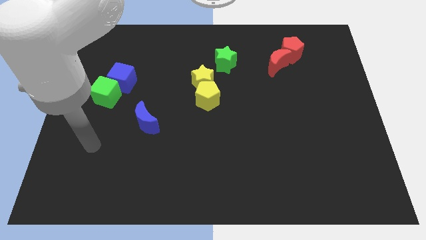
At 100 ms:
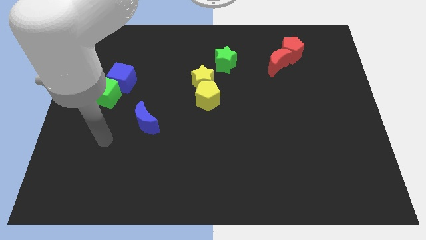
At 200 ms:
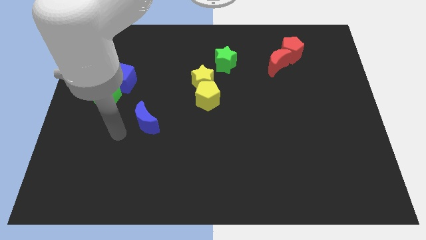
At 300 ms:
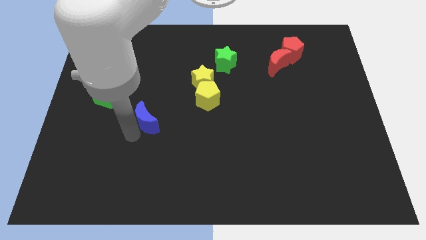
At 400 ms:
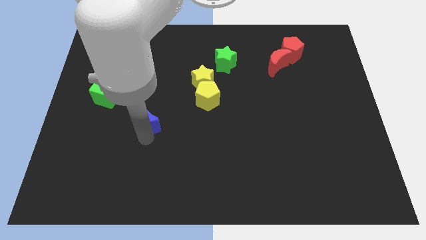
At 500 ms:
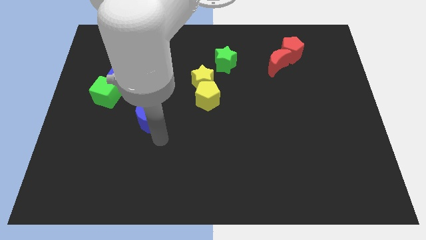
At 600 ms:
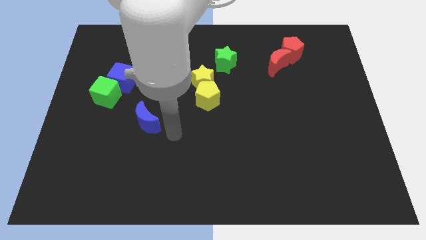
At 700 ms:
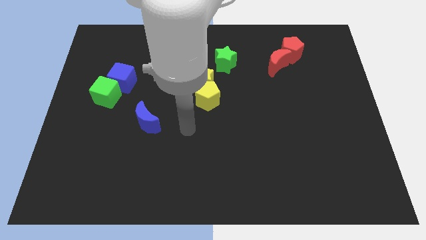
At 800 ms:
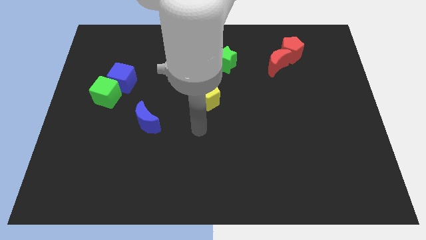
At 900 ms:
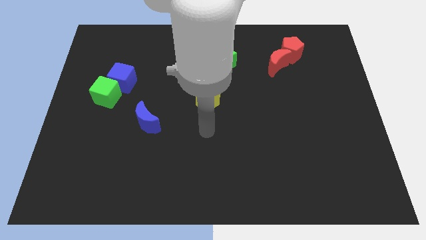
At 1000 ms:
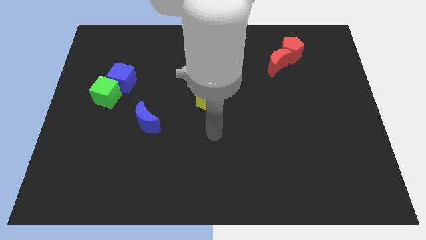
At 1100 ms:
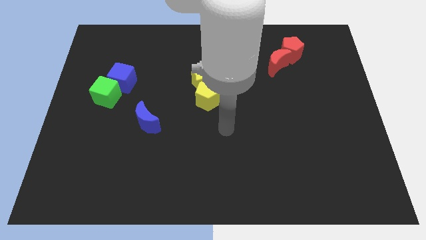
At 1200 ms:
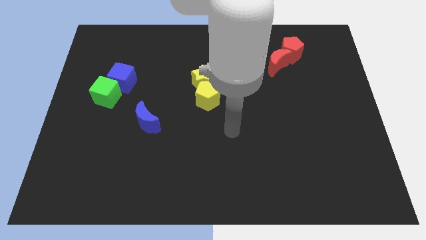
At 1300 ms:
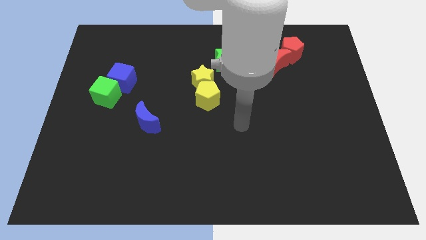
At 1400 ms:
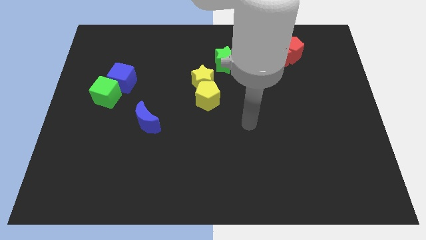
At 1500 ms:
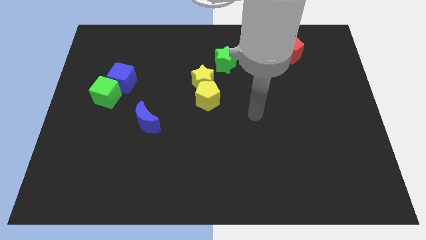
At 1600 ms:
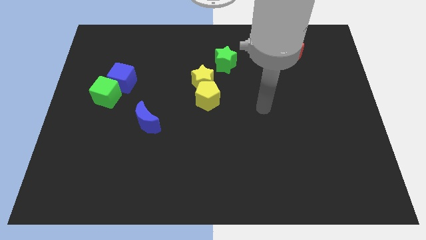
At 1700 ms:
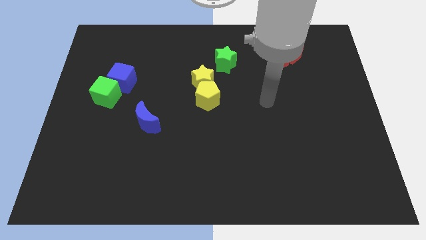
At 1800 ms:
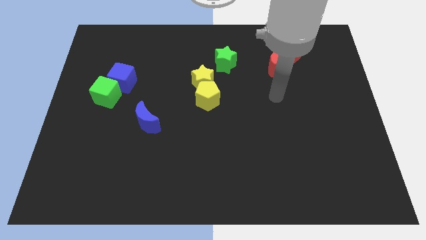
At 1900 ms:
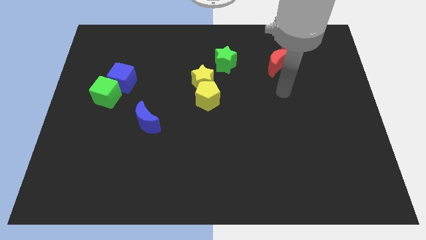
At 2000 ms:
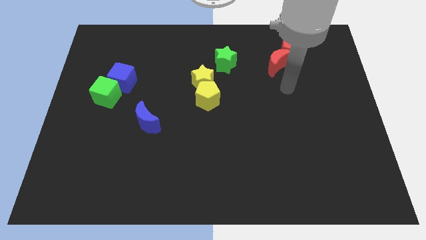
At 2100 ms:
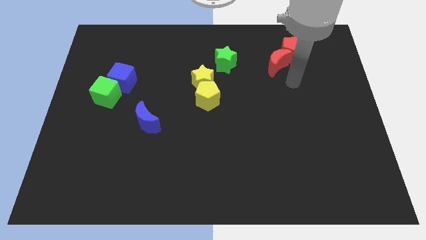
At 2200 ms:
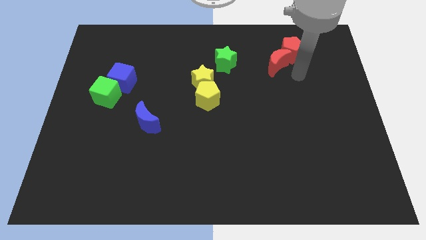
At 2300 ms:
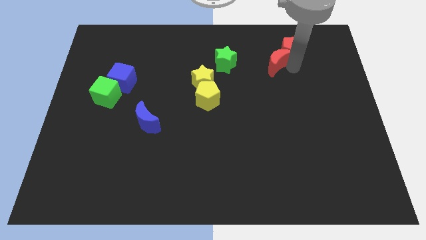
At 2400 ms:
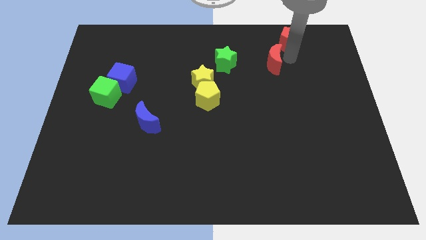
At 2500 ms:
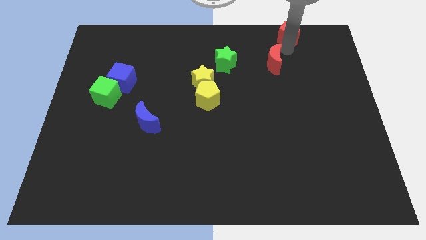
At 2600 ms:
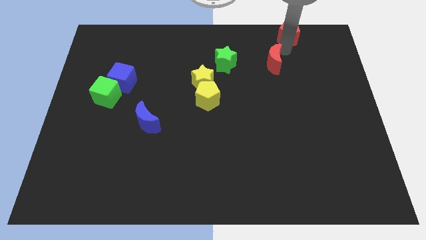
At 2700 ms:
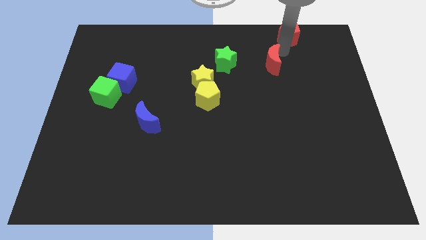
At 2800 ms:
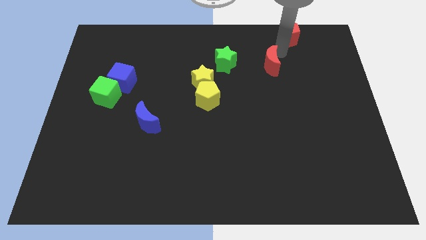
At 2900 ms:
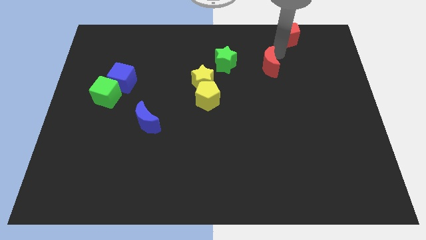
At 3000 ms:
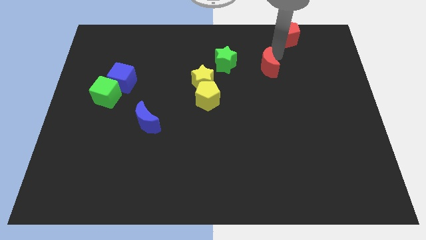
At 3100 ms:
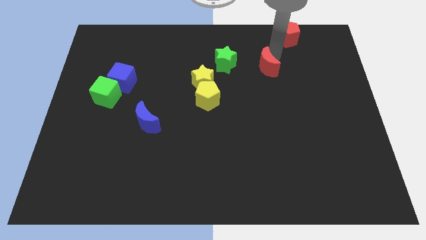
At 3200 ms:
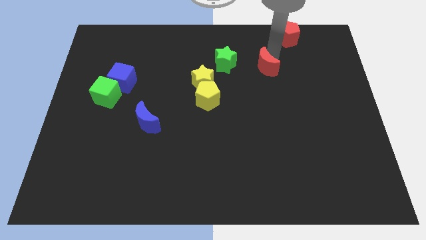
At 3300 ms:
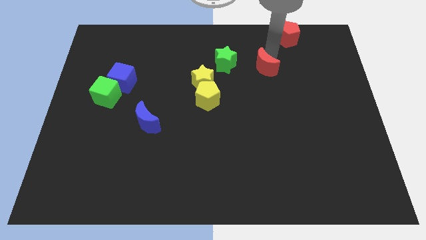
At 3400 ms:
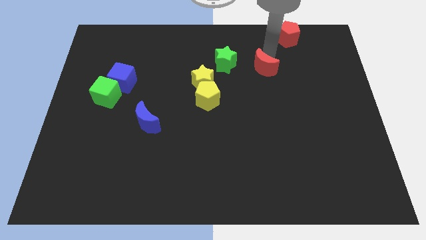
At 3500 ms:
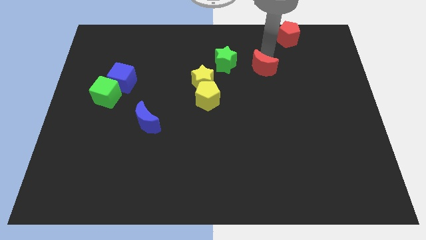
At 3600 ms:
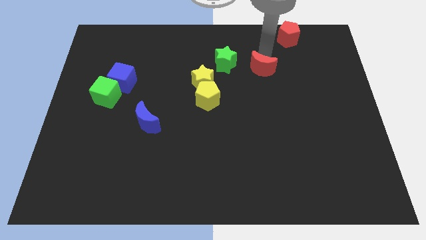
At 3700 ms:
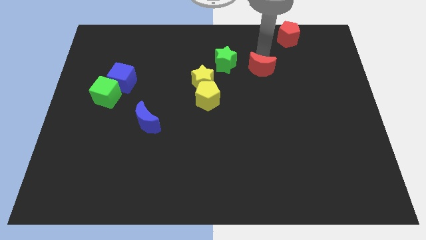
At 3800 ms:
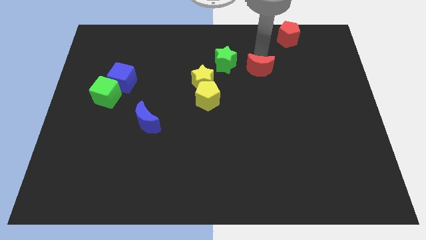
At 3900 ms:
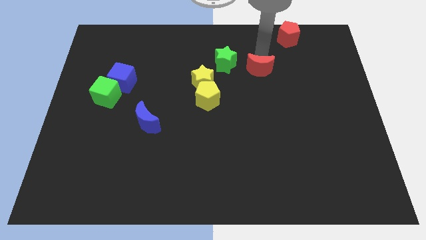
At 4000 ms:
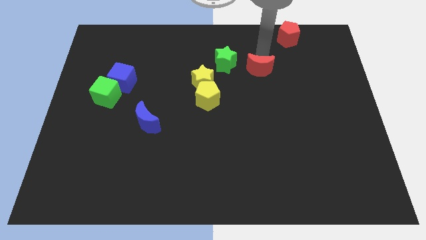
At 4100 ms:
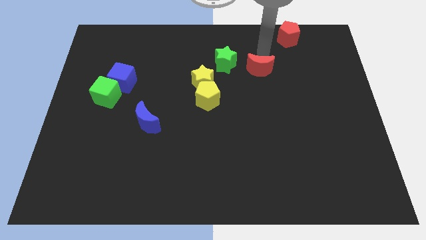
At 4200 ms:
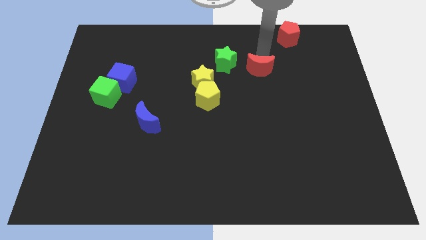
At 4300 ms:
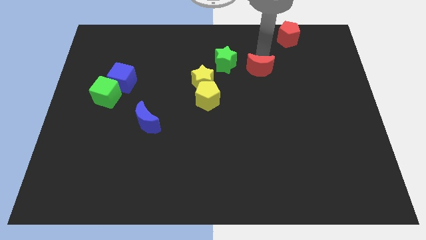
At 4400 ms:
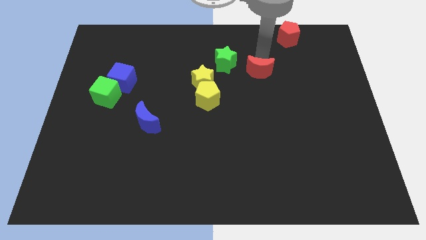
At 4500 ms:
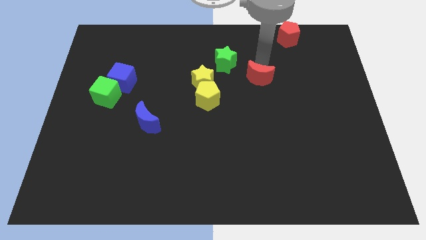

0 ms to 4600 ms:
push the red moon slightly diagonally downwards and left

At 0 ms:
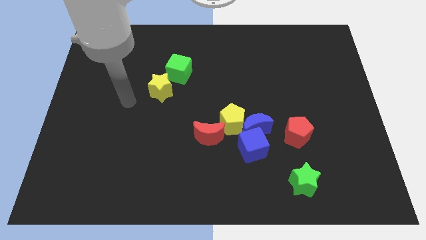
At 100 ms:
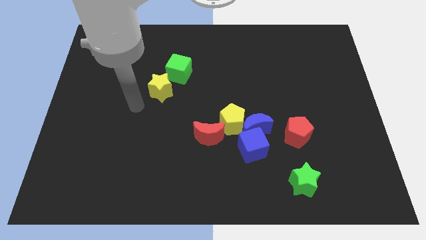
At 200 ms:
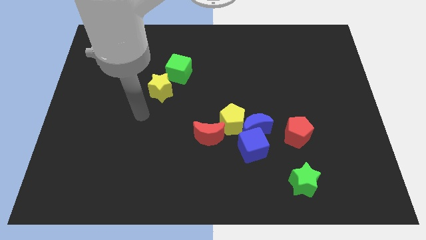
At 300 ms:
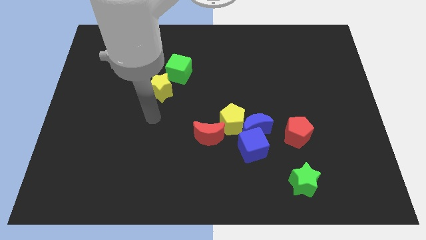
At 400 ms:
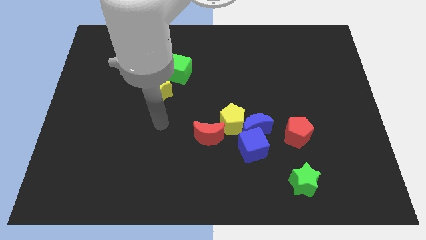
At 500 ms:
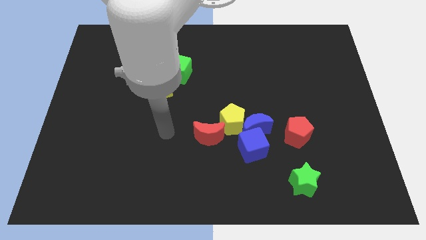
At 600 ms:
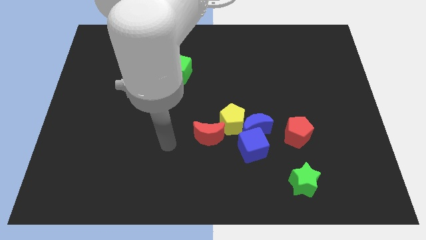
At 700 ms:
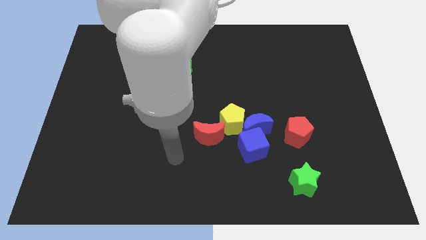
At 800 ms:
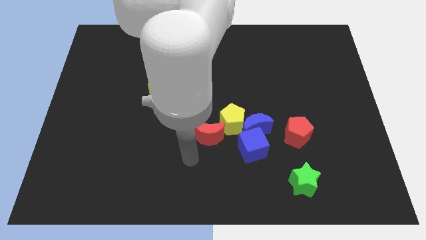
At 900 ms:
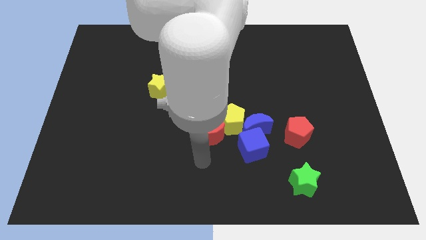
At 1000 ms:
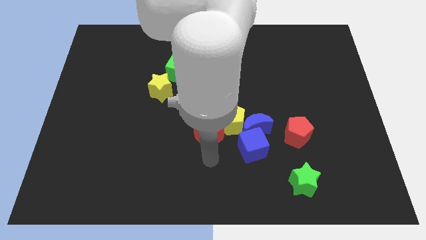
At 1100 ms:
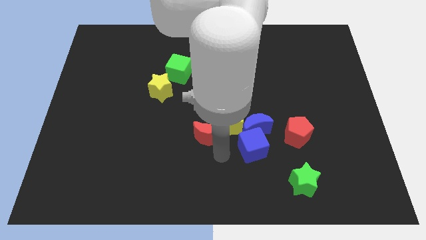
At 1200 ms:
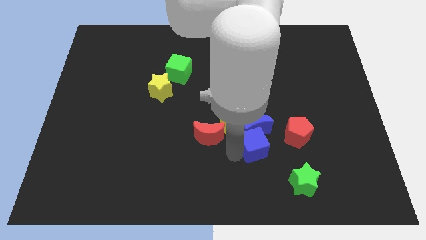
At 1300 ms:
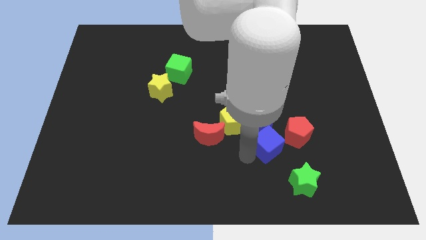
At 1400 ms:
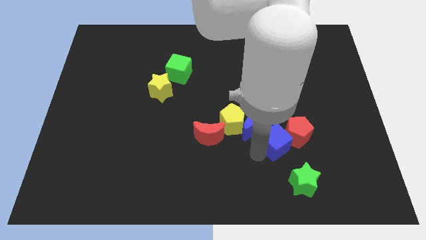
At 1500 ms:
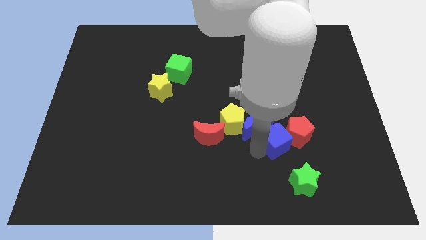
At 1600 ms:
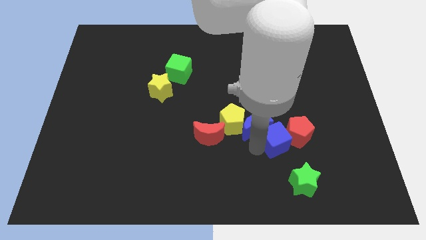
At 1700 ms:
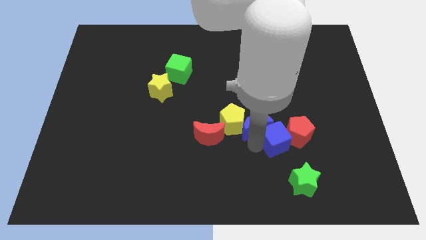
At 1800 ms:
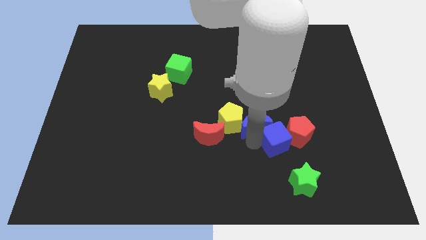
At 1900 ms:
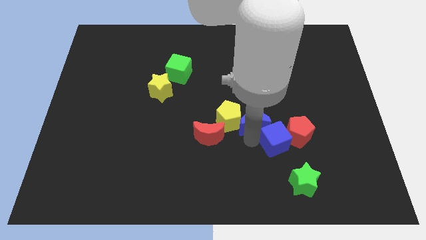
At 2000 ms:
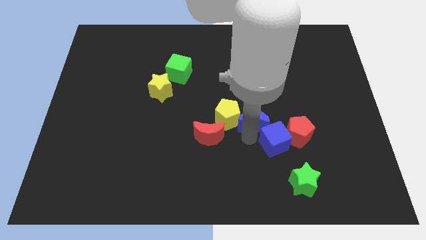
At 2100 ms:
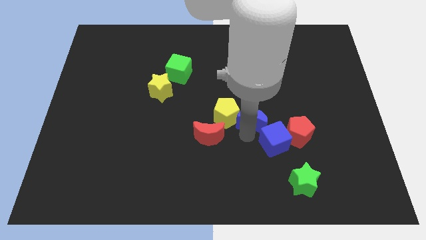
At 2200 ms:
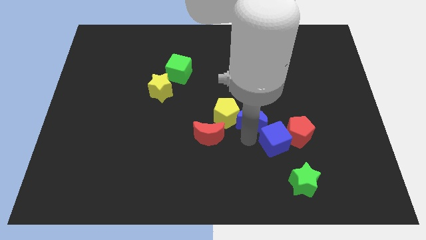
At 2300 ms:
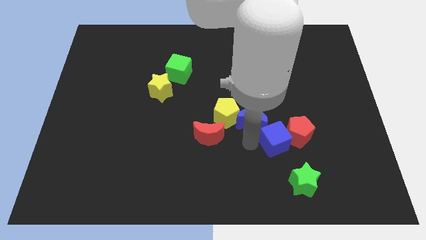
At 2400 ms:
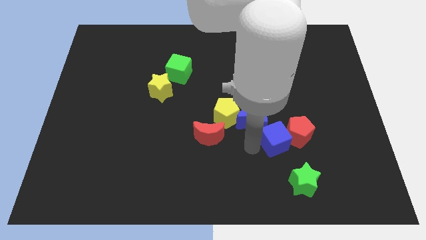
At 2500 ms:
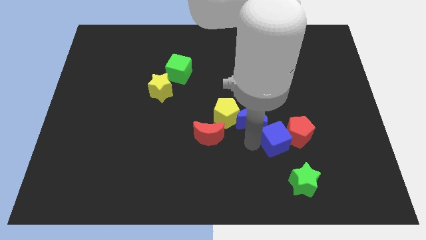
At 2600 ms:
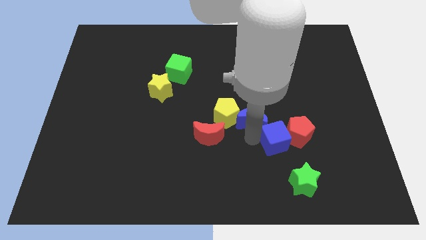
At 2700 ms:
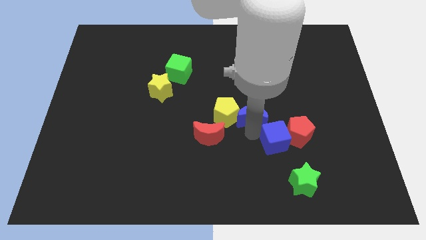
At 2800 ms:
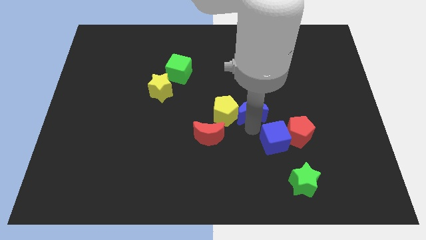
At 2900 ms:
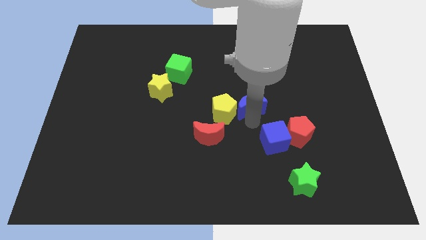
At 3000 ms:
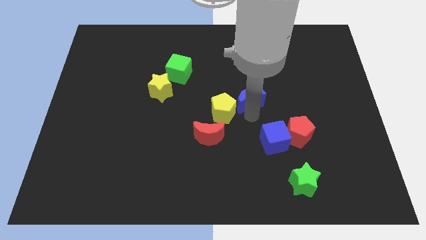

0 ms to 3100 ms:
slightly move the blue moon upwards

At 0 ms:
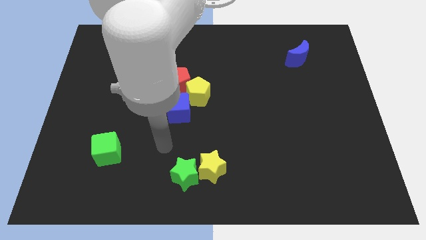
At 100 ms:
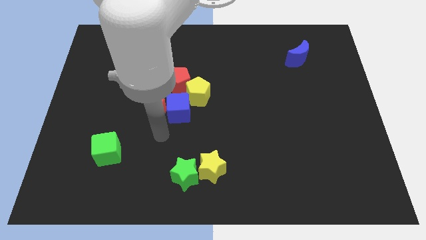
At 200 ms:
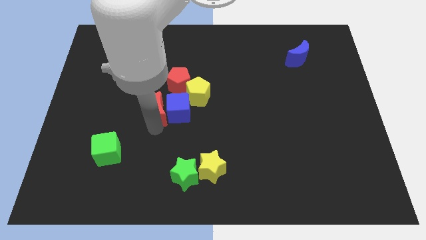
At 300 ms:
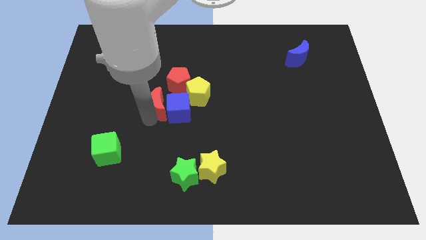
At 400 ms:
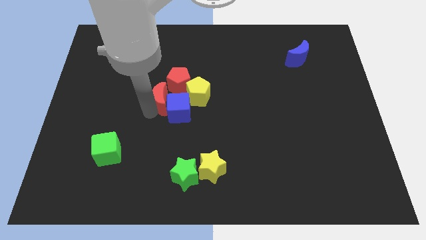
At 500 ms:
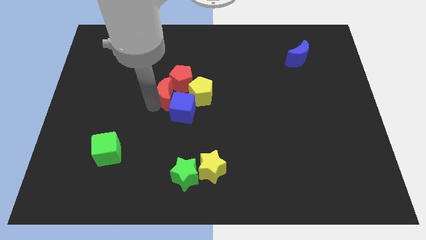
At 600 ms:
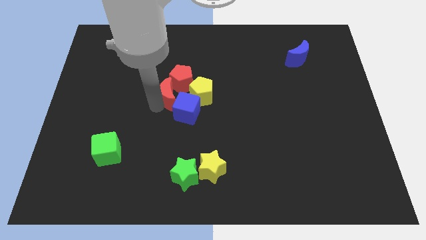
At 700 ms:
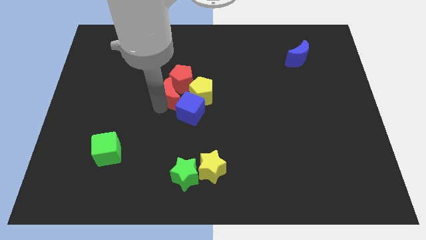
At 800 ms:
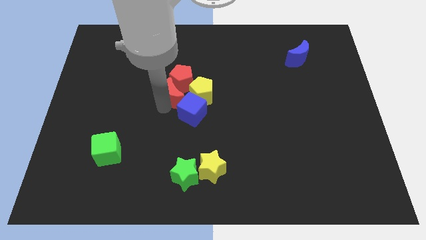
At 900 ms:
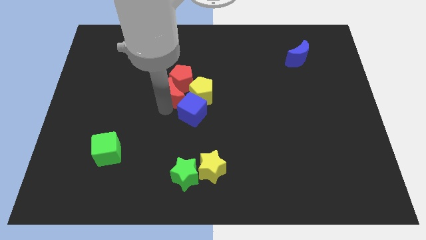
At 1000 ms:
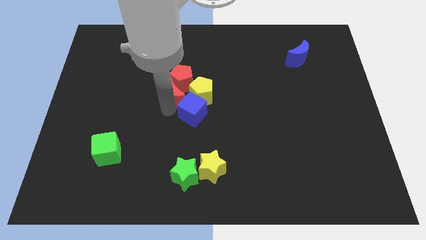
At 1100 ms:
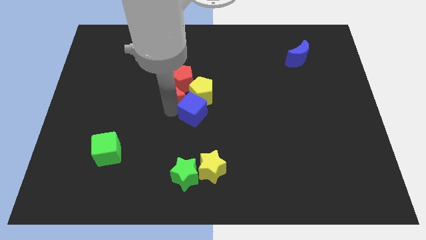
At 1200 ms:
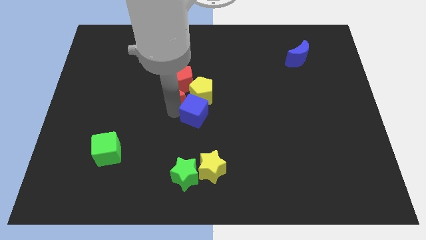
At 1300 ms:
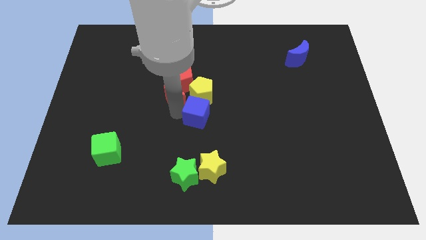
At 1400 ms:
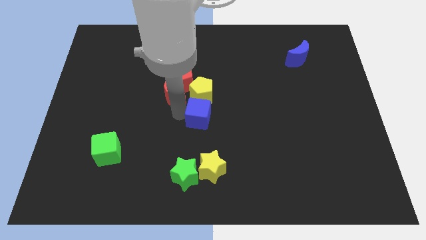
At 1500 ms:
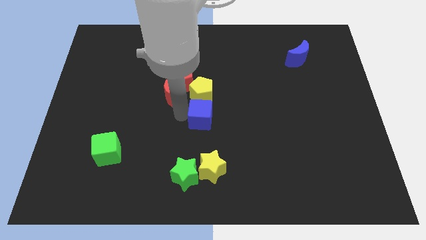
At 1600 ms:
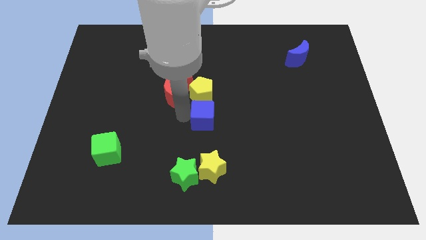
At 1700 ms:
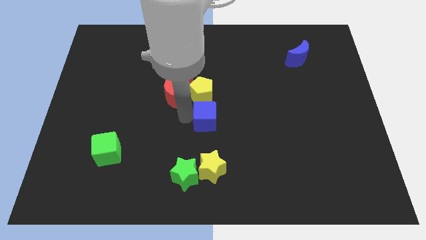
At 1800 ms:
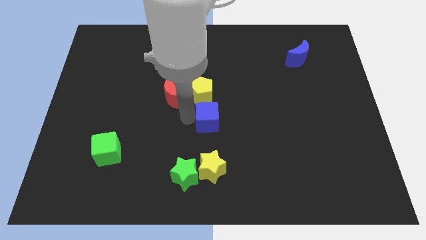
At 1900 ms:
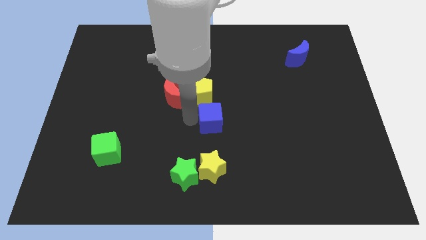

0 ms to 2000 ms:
slightly slide the blue cube to the right
